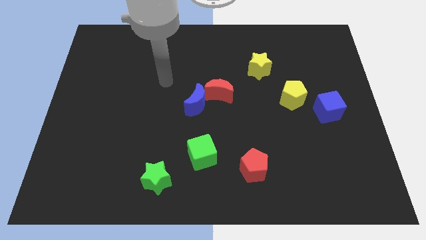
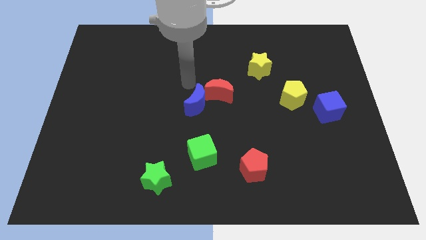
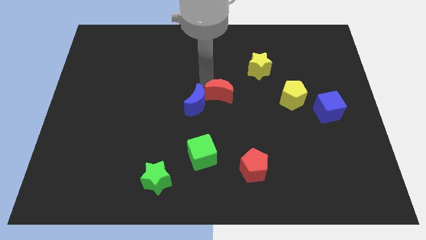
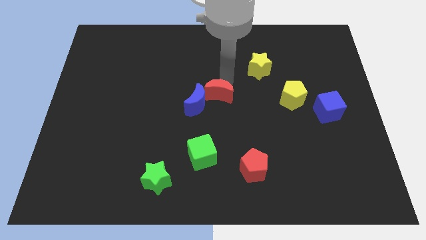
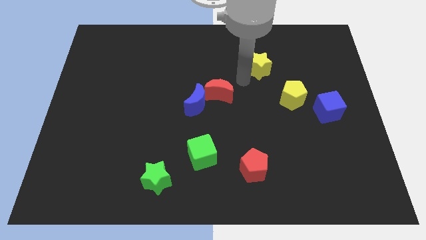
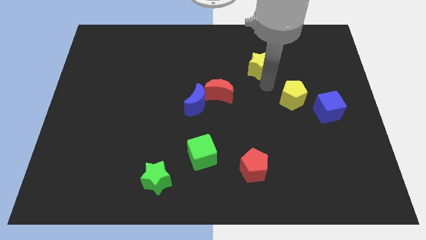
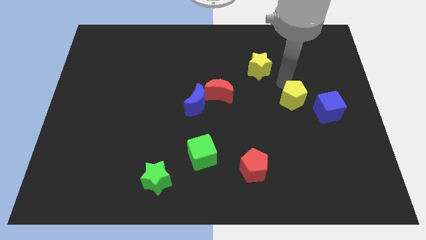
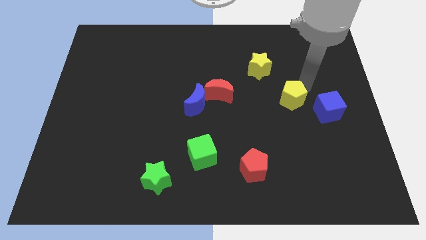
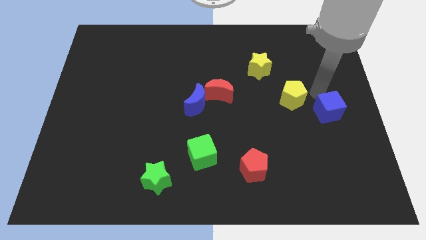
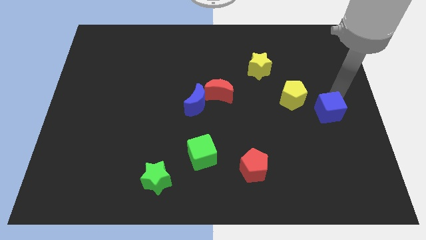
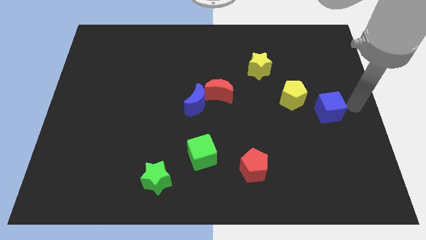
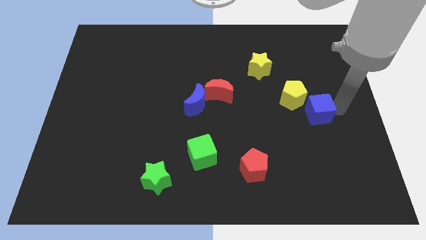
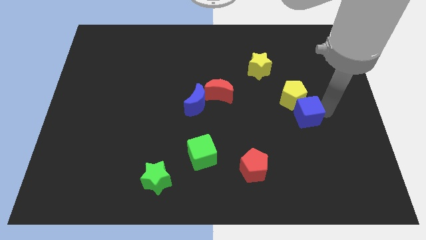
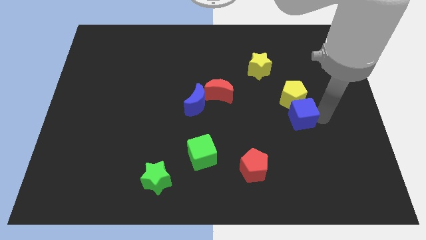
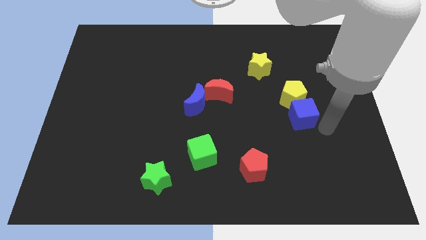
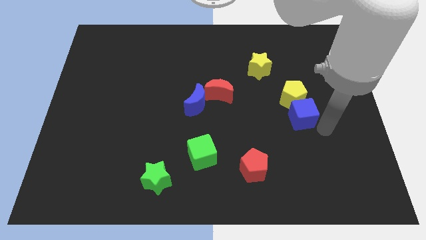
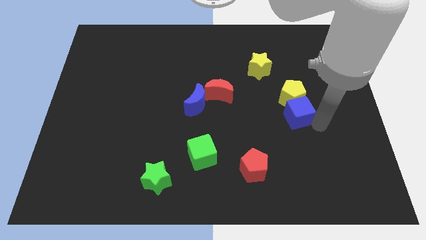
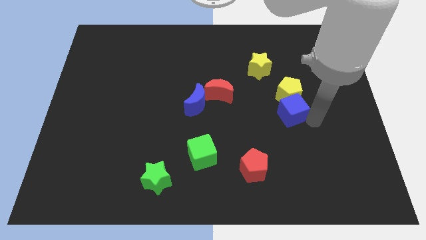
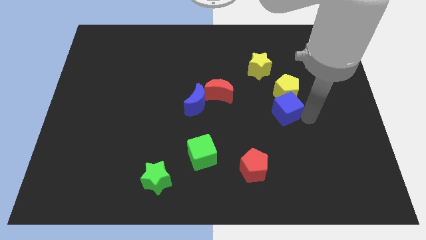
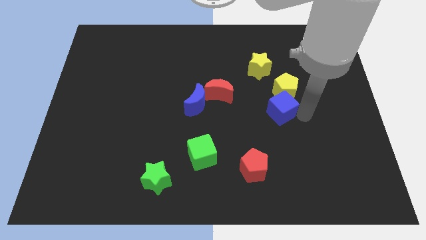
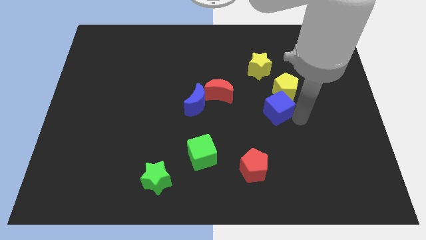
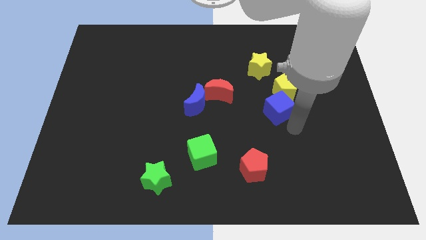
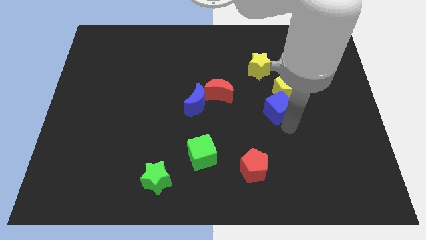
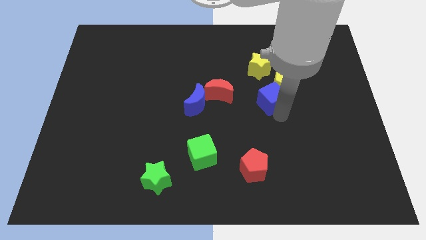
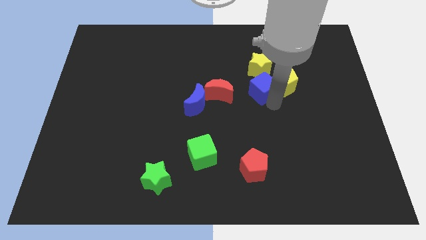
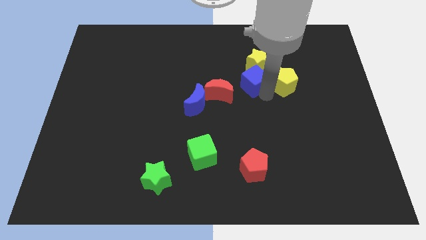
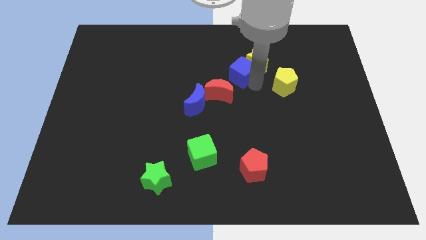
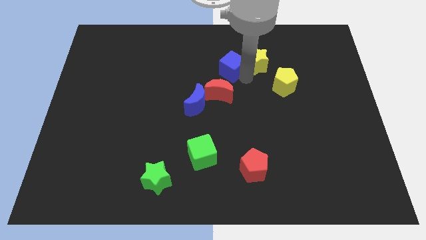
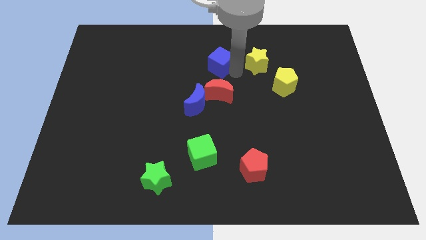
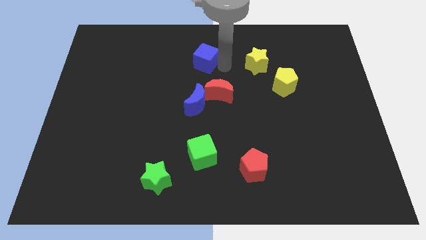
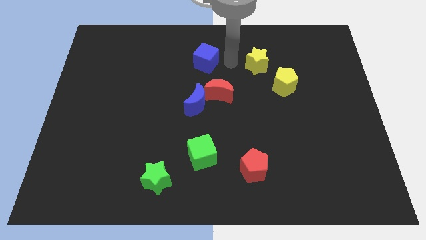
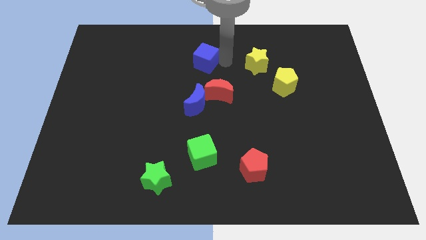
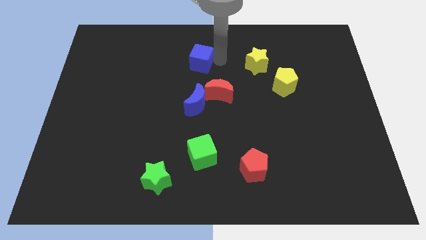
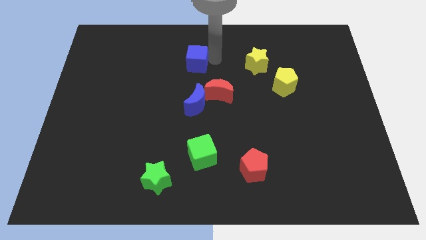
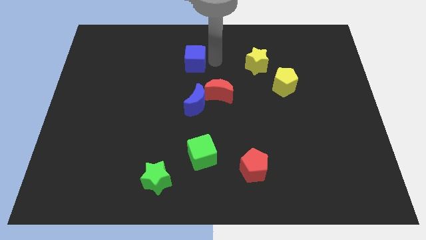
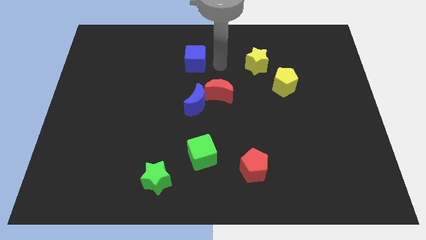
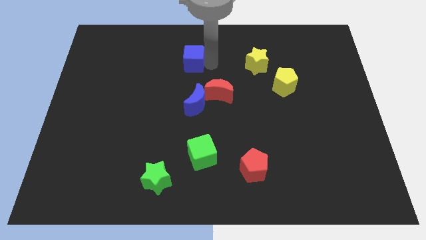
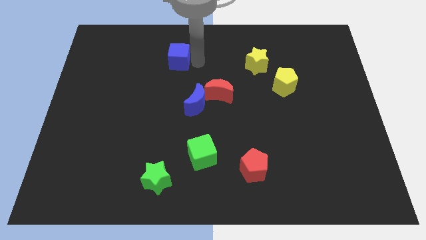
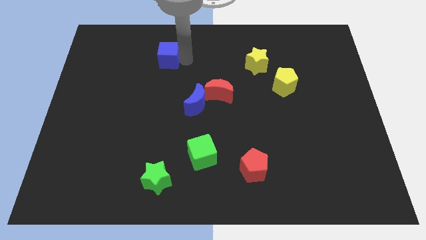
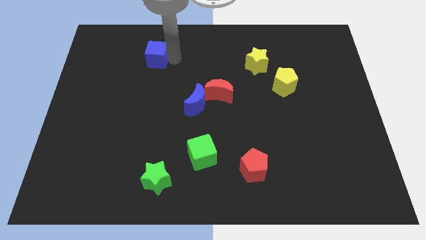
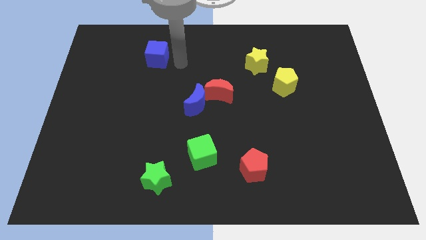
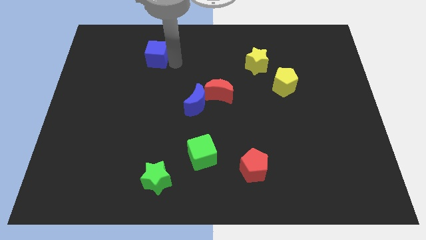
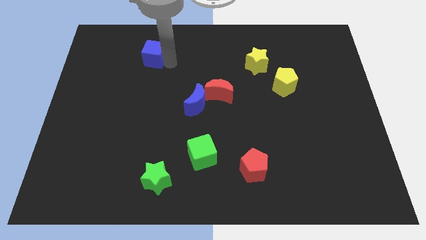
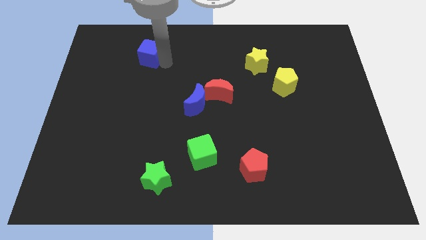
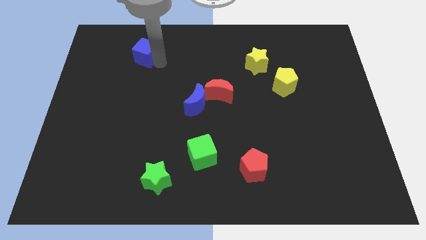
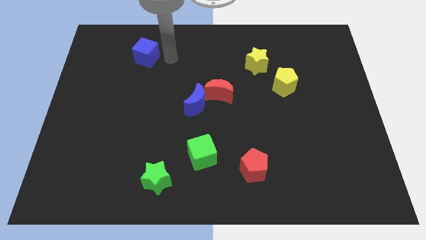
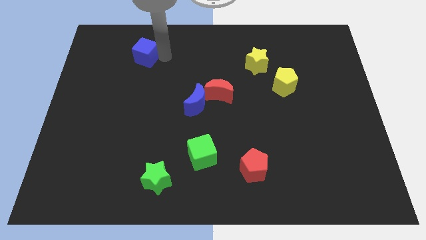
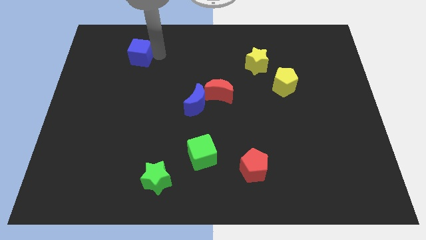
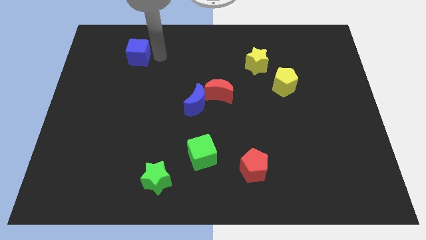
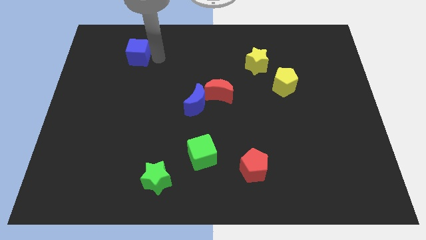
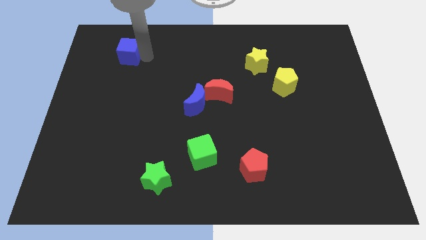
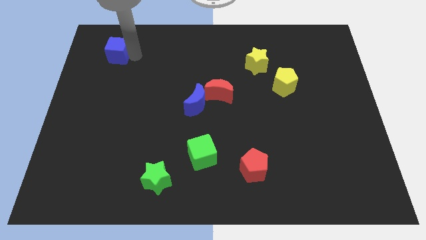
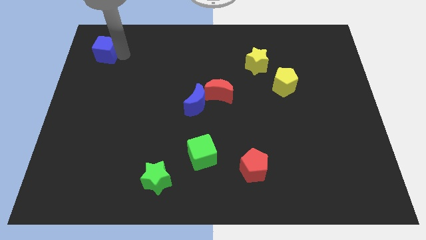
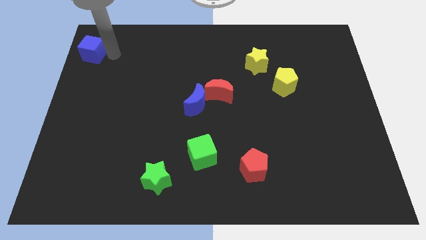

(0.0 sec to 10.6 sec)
push the blue cube to the top left corner

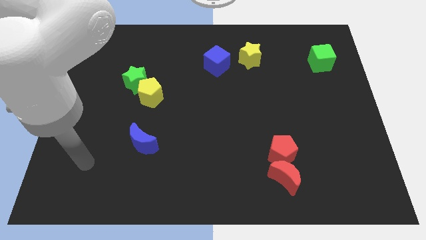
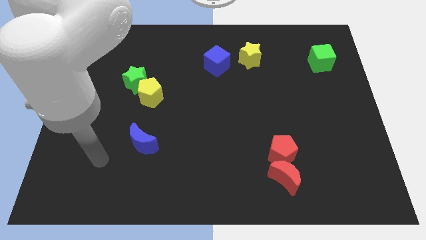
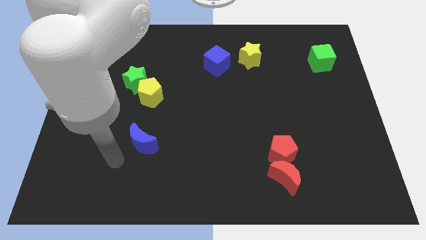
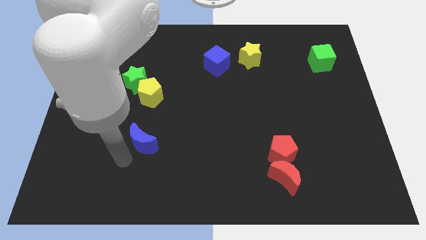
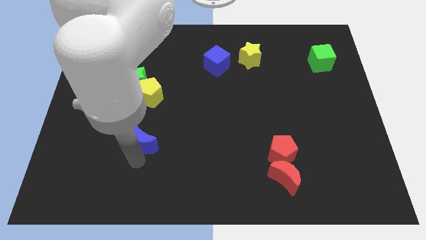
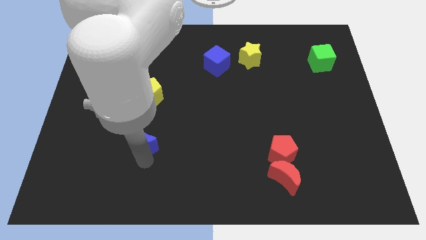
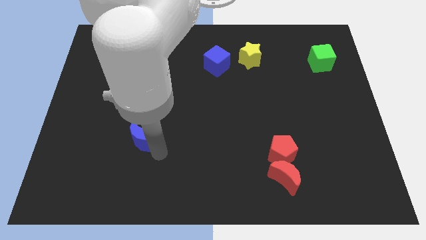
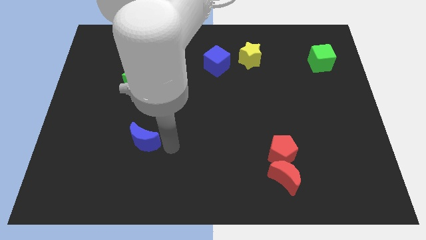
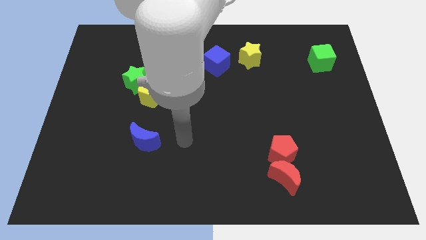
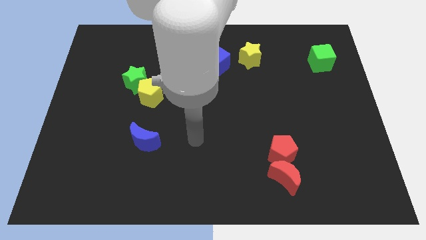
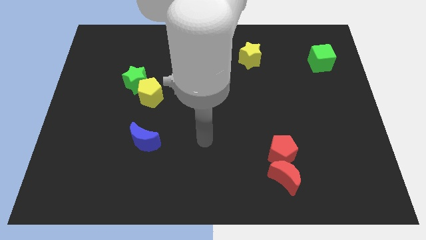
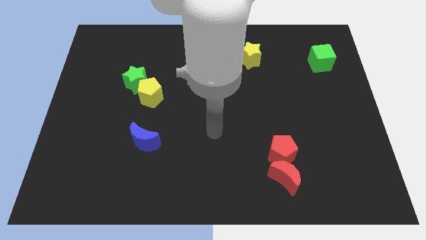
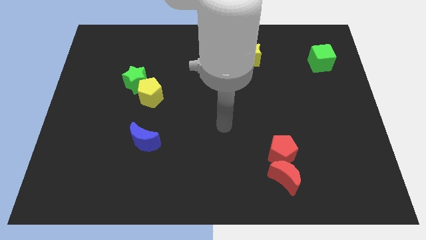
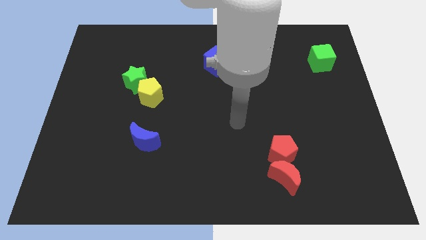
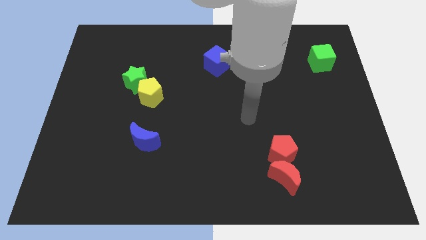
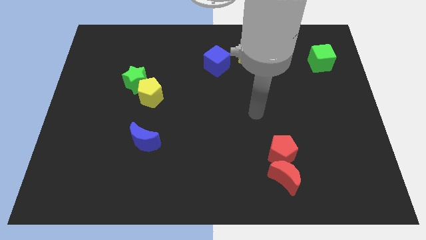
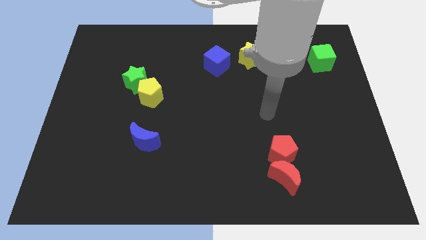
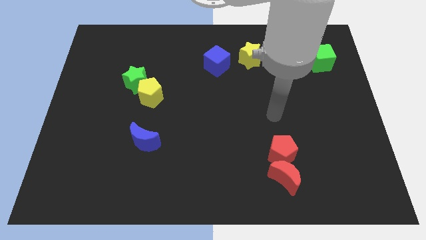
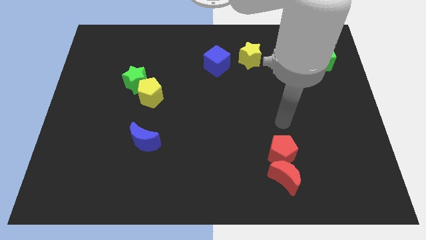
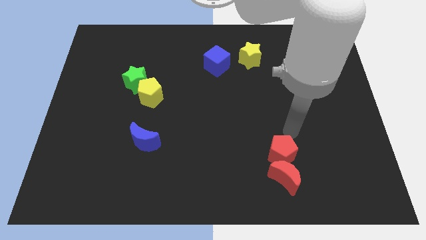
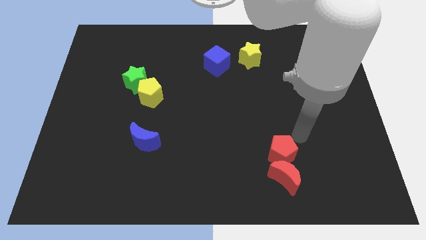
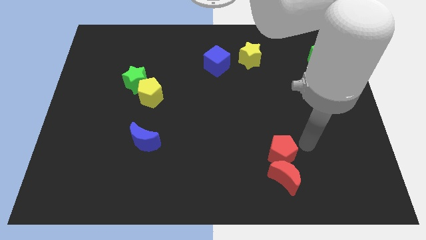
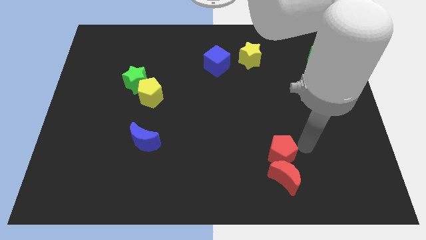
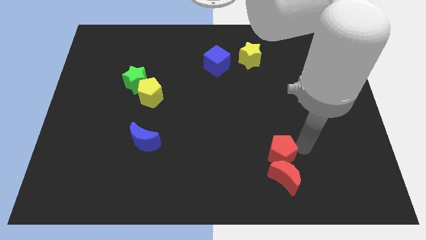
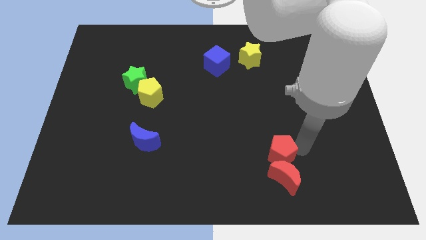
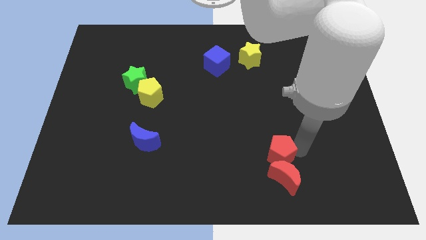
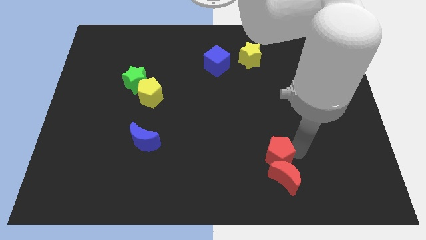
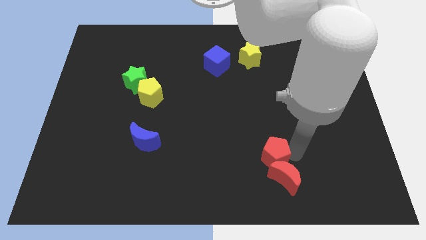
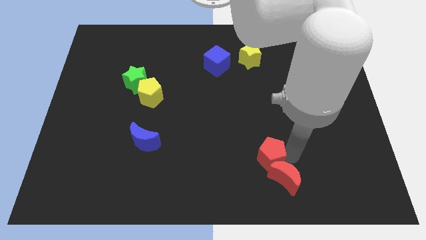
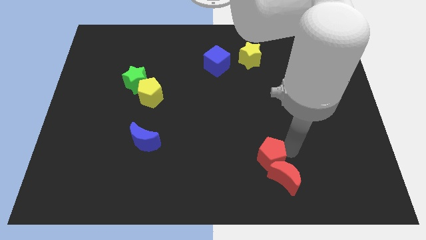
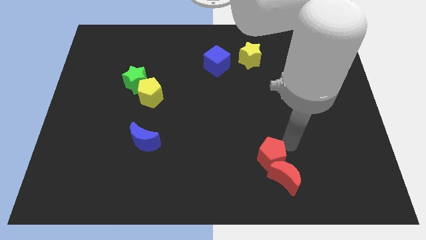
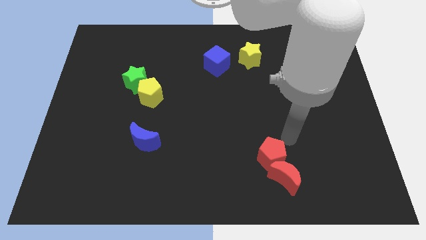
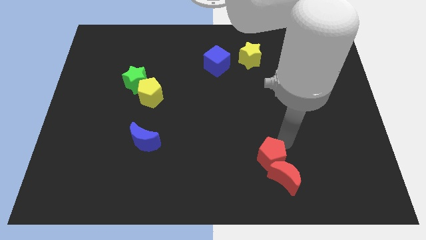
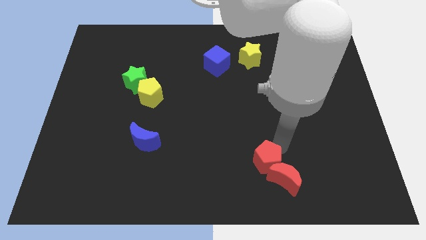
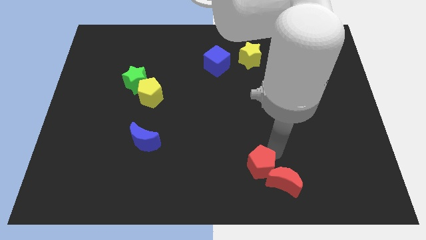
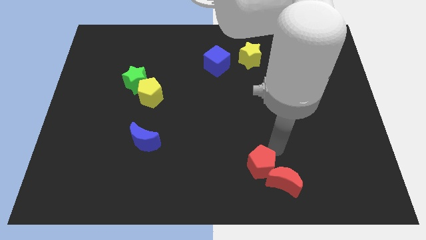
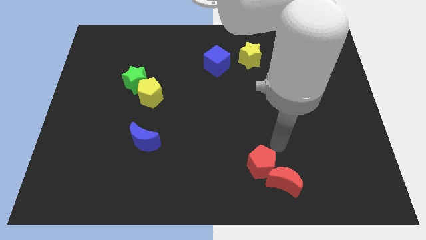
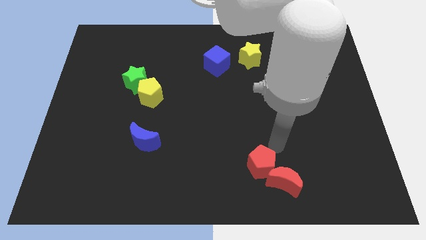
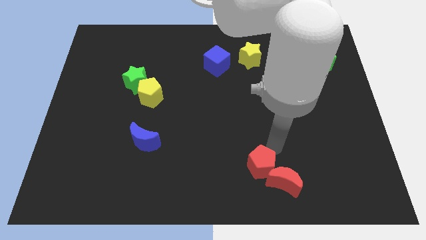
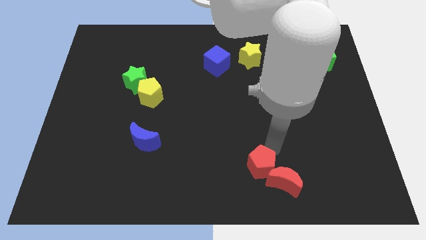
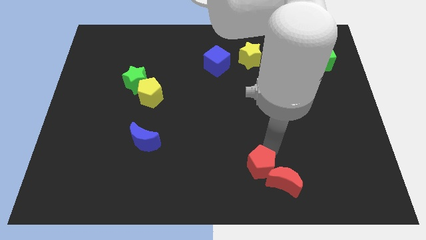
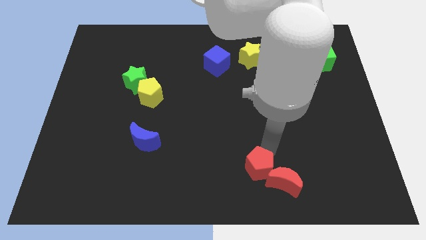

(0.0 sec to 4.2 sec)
slide the red pentagon to the bottom side
